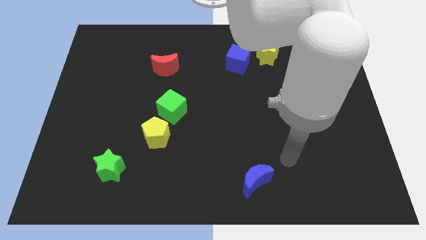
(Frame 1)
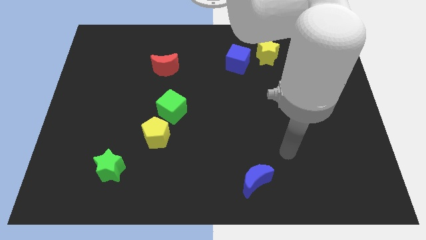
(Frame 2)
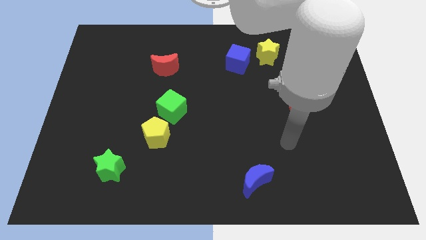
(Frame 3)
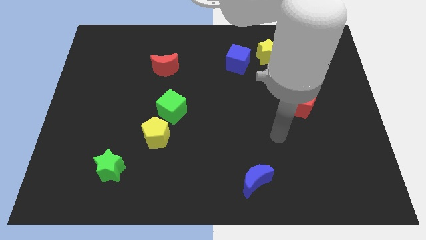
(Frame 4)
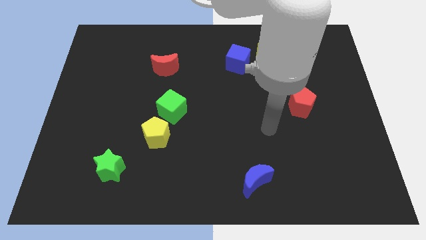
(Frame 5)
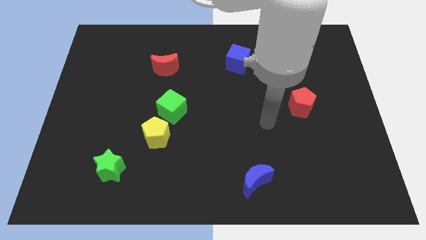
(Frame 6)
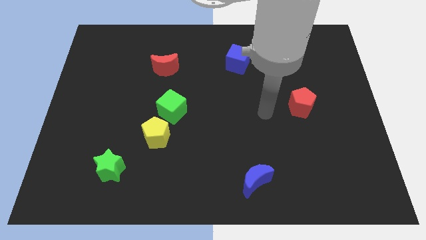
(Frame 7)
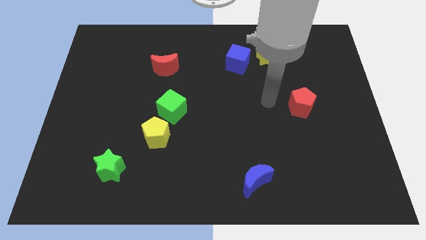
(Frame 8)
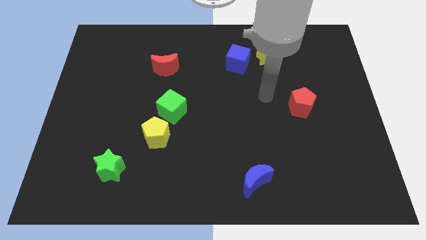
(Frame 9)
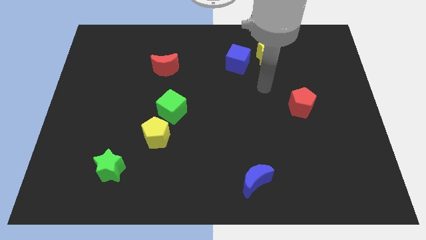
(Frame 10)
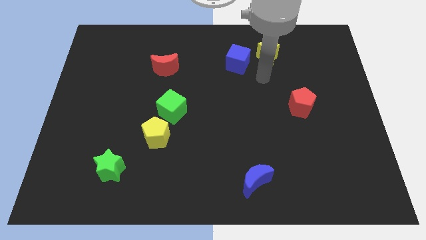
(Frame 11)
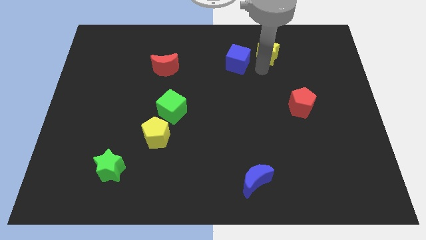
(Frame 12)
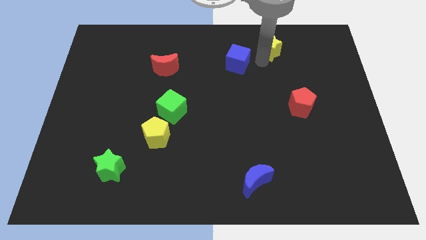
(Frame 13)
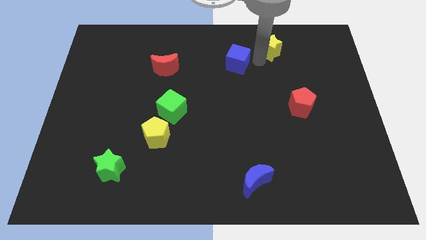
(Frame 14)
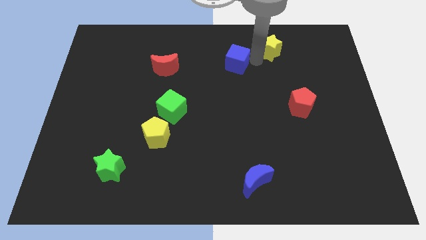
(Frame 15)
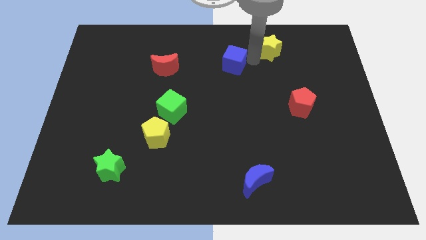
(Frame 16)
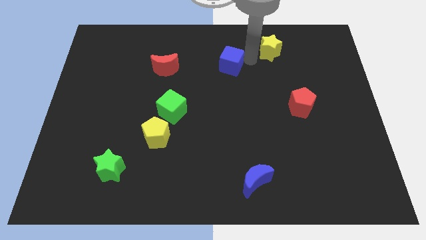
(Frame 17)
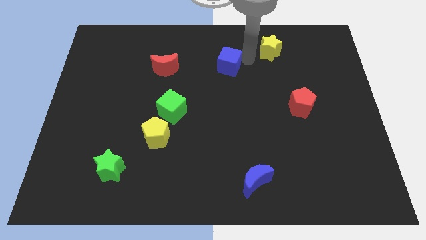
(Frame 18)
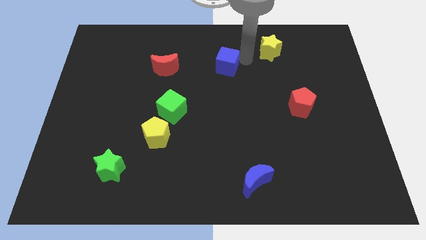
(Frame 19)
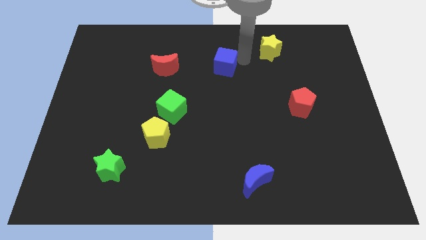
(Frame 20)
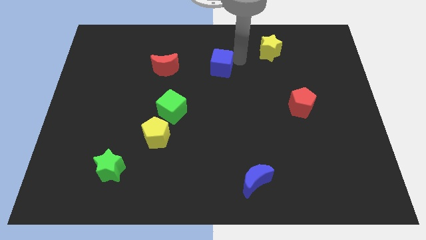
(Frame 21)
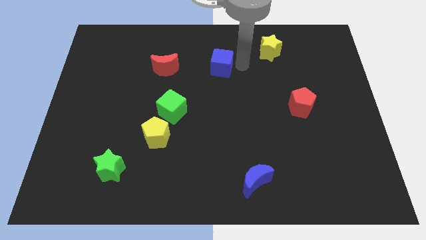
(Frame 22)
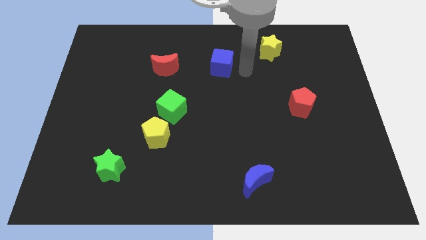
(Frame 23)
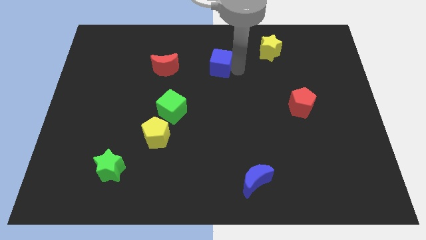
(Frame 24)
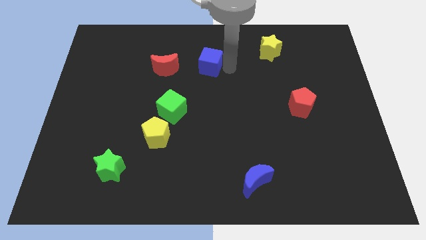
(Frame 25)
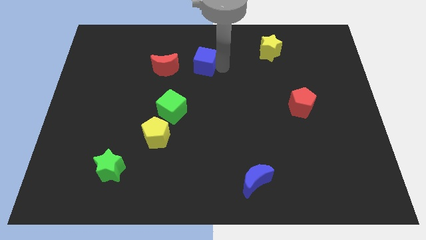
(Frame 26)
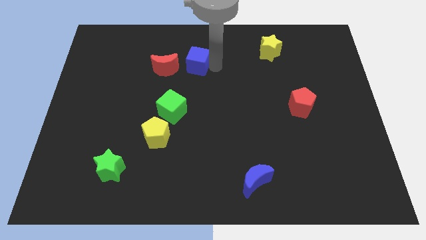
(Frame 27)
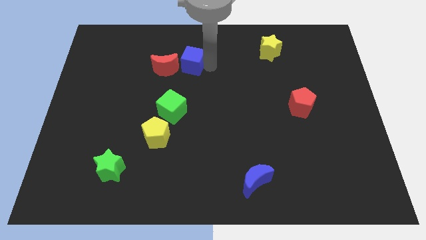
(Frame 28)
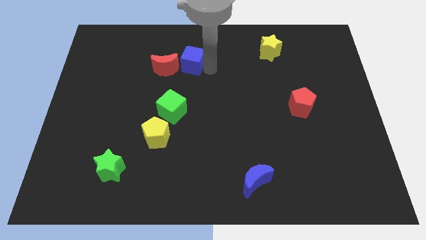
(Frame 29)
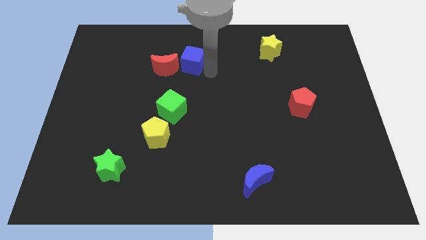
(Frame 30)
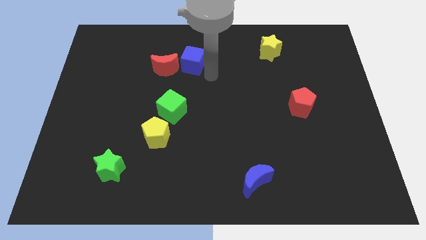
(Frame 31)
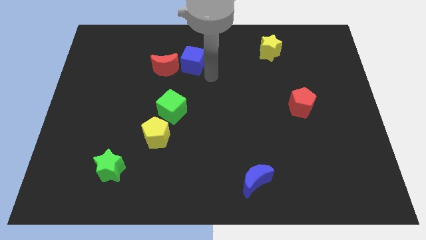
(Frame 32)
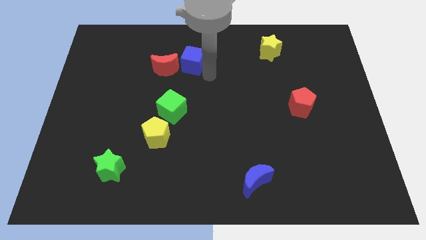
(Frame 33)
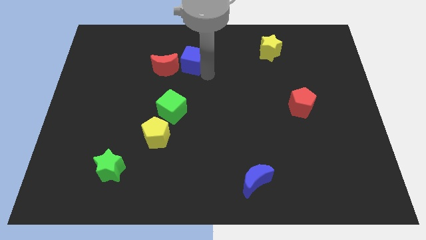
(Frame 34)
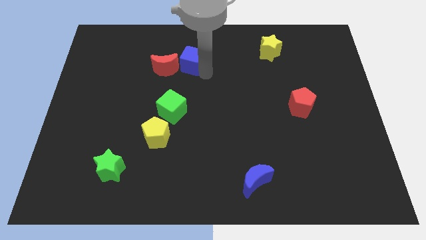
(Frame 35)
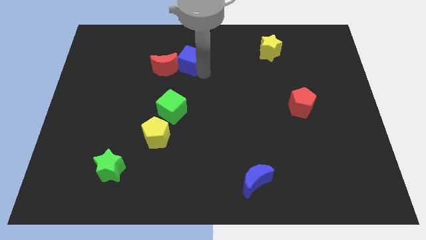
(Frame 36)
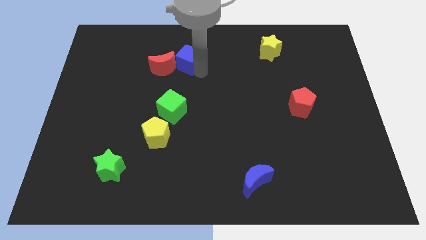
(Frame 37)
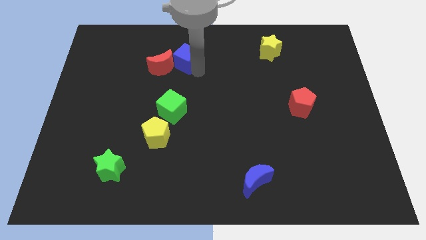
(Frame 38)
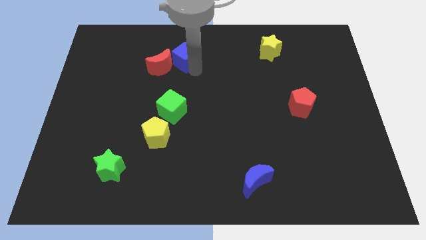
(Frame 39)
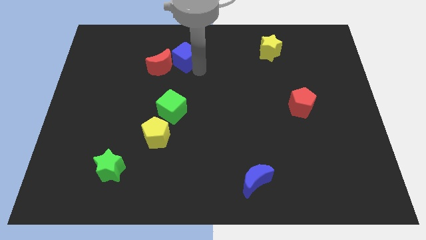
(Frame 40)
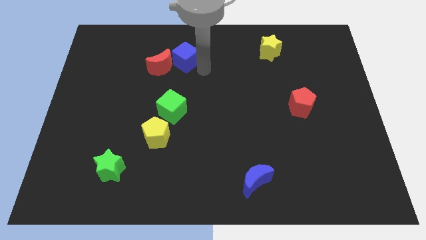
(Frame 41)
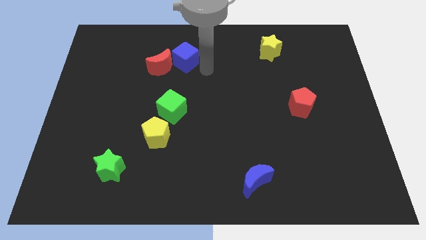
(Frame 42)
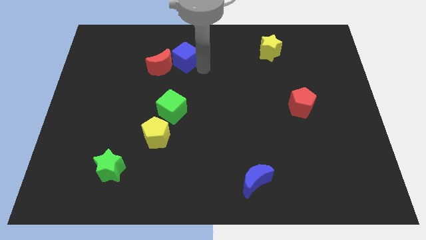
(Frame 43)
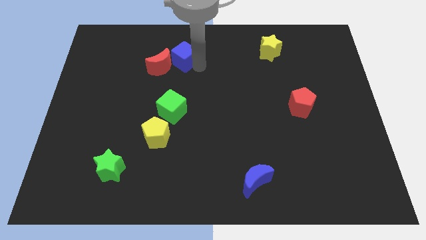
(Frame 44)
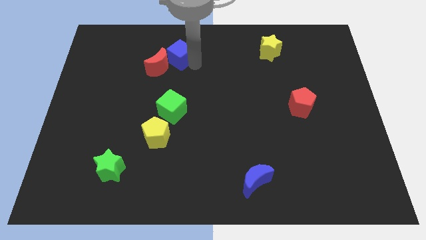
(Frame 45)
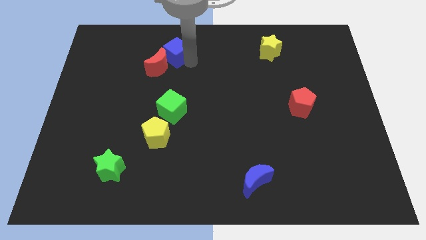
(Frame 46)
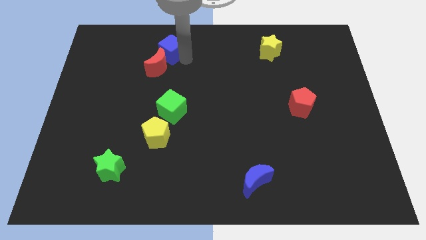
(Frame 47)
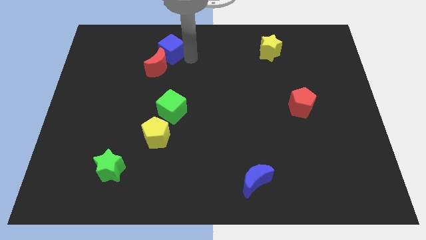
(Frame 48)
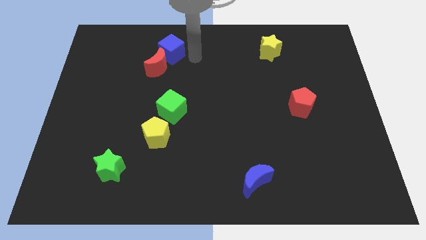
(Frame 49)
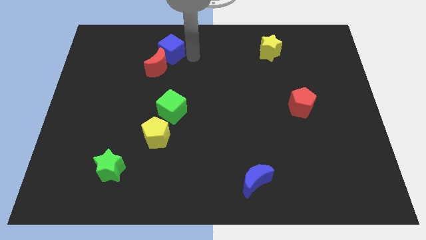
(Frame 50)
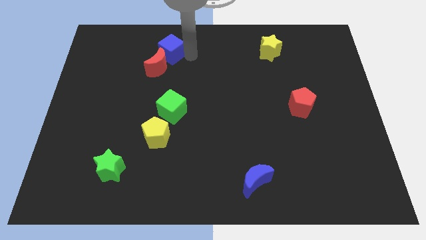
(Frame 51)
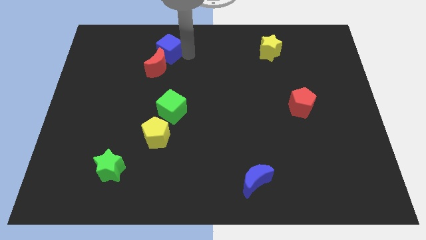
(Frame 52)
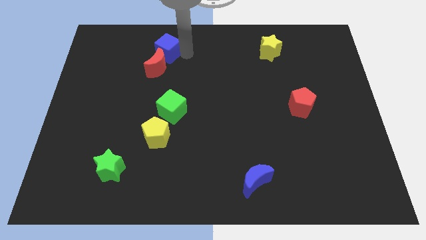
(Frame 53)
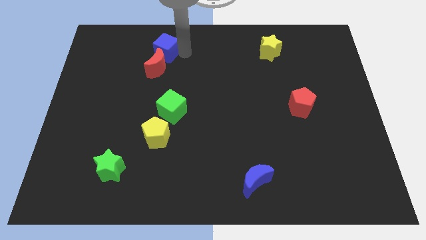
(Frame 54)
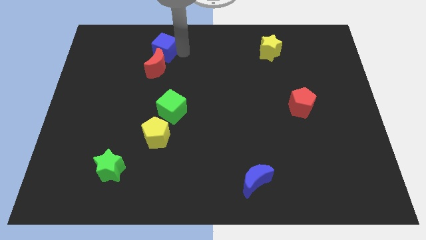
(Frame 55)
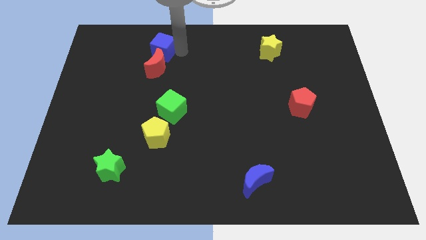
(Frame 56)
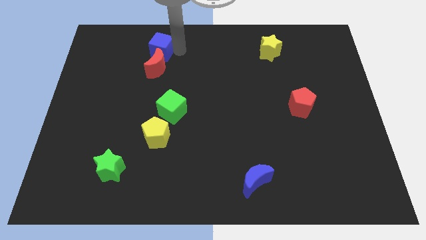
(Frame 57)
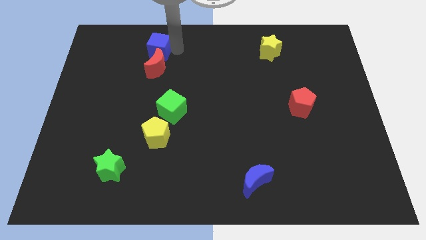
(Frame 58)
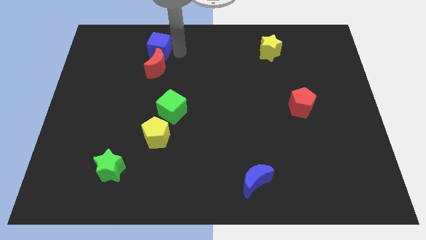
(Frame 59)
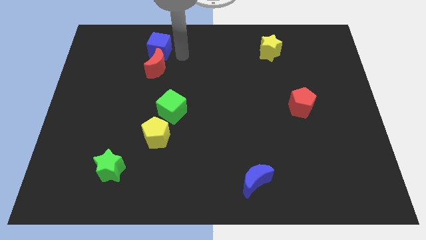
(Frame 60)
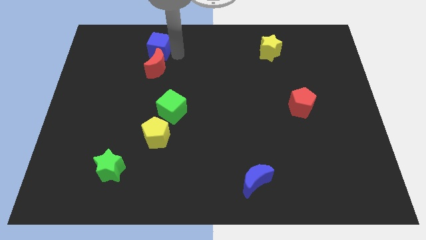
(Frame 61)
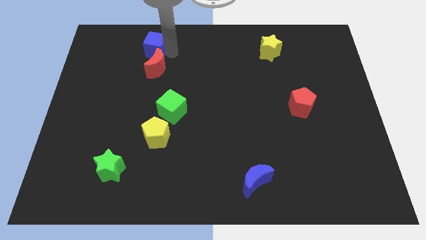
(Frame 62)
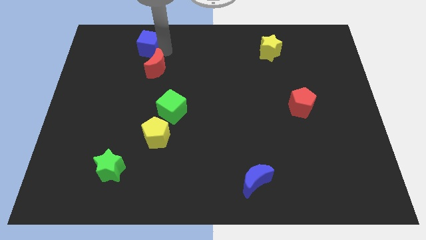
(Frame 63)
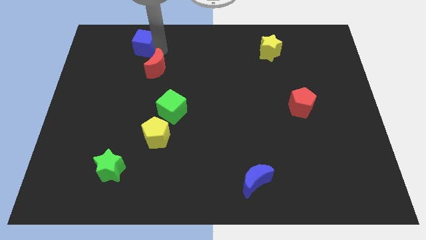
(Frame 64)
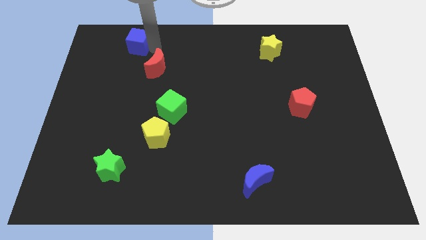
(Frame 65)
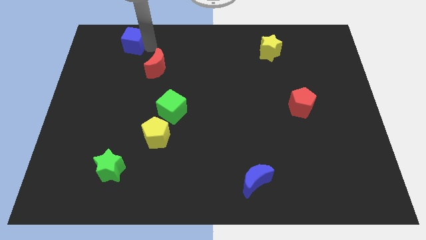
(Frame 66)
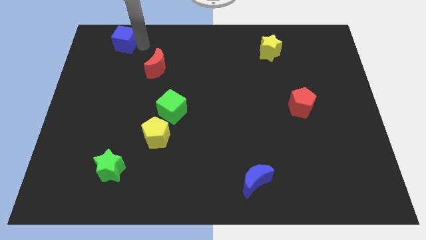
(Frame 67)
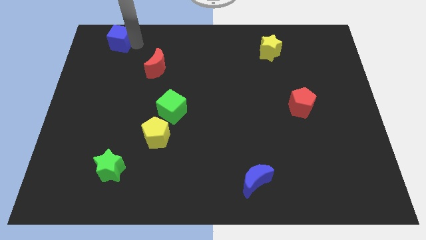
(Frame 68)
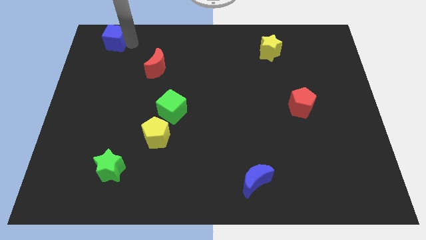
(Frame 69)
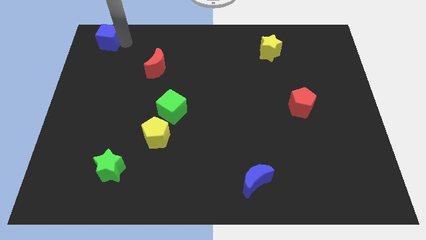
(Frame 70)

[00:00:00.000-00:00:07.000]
move the blue cube to the top left corner
